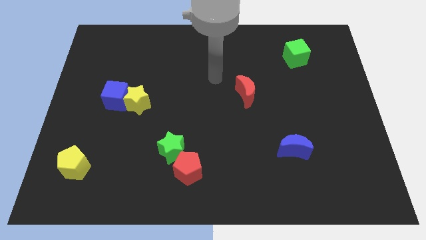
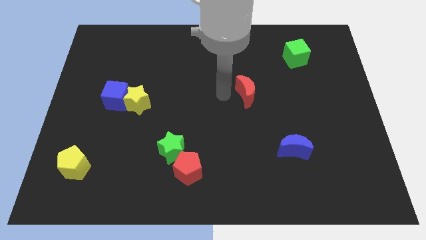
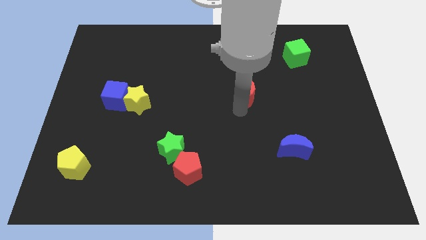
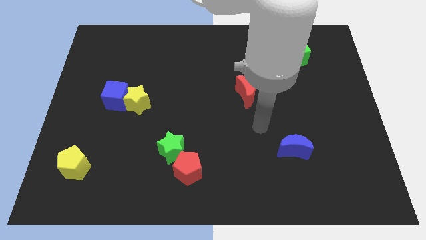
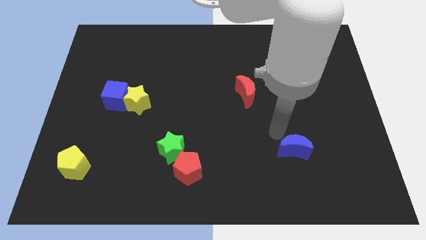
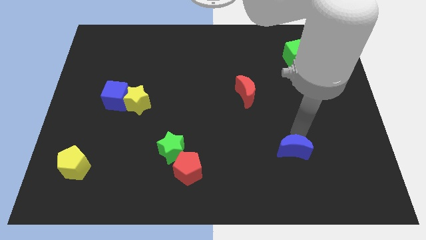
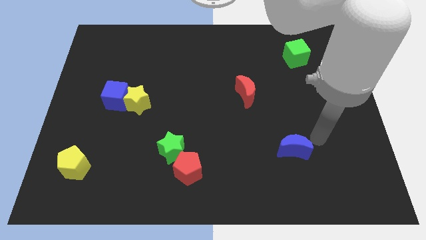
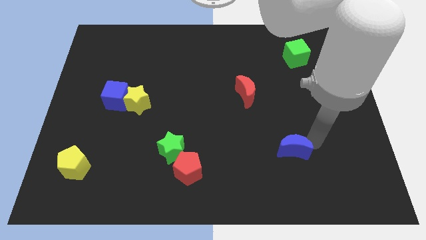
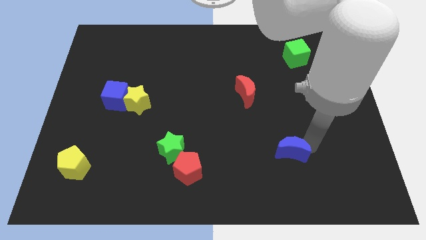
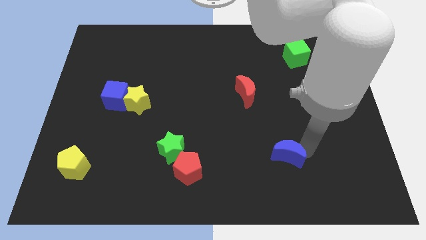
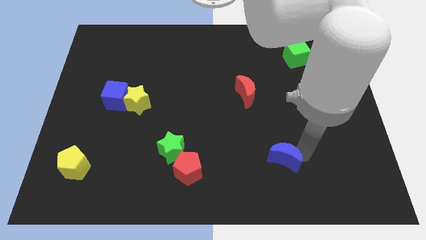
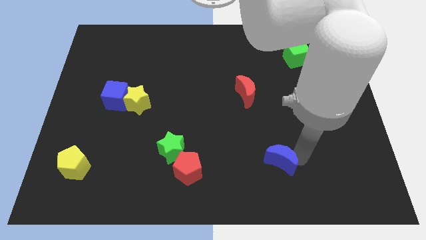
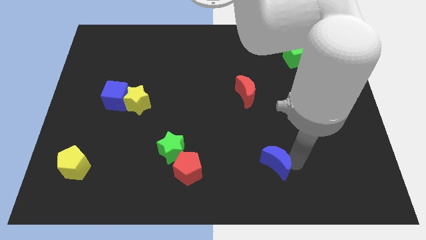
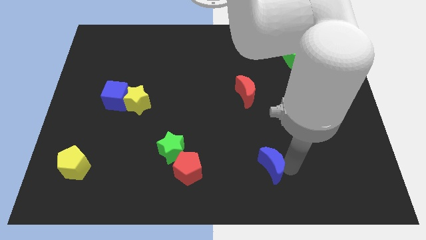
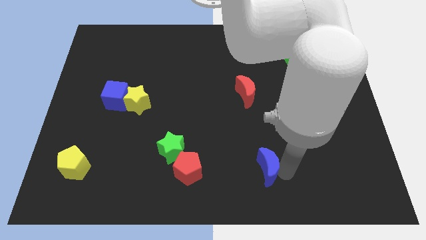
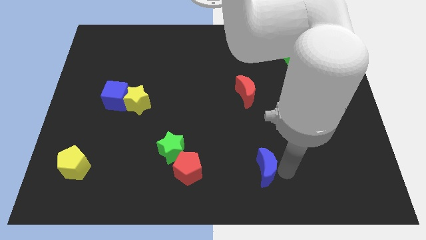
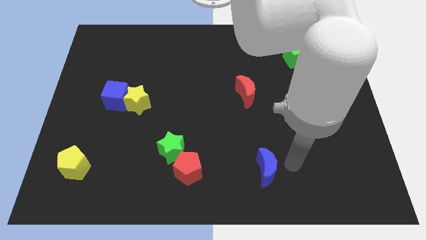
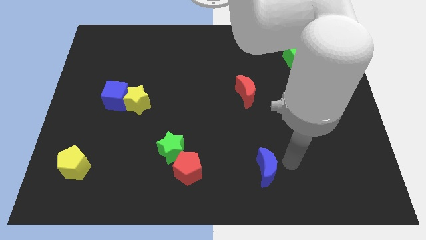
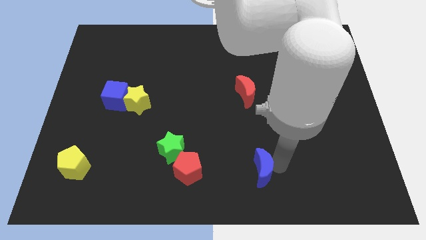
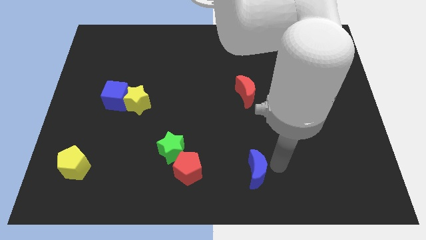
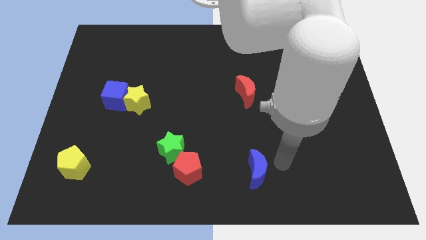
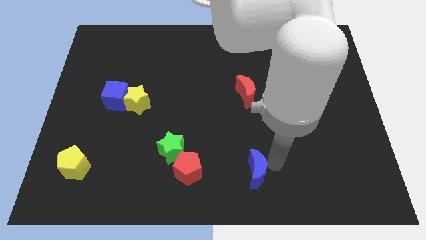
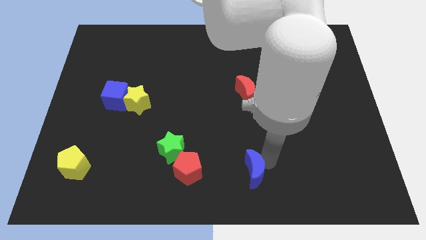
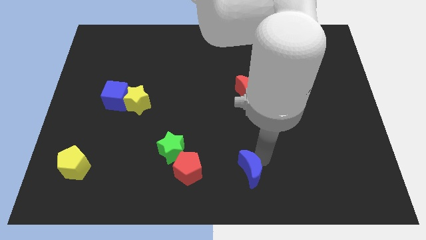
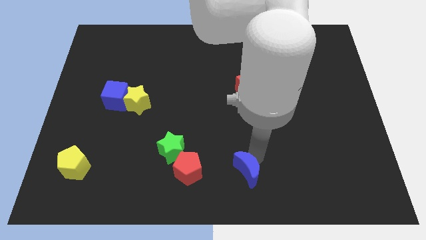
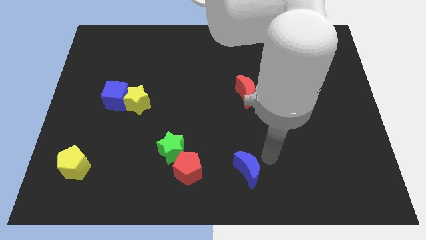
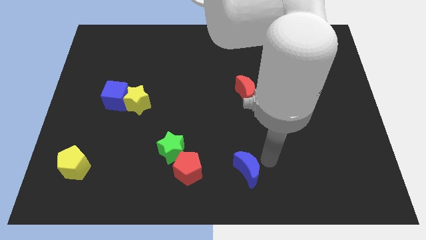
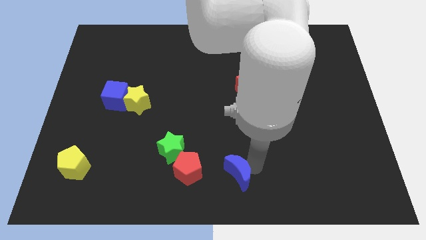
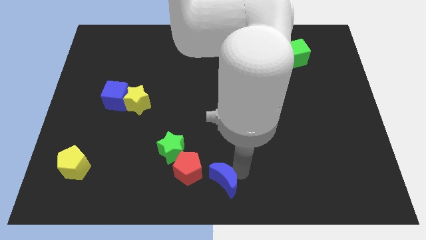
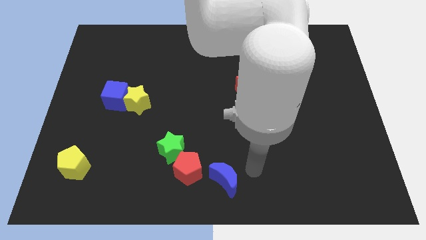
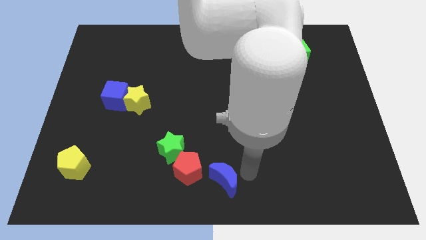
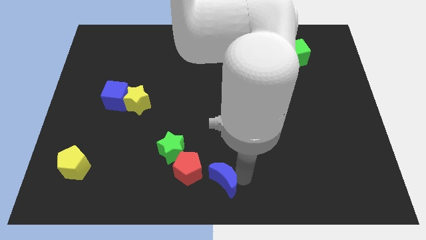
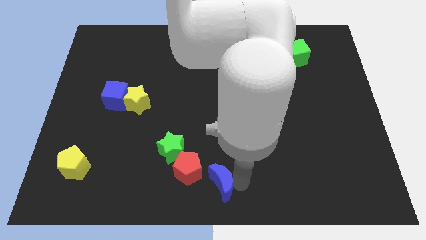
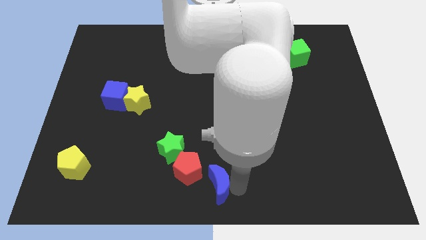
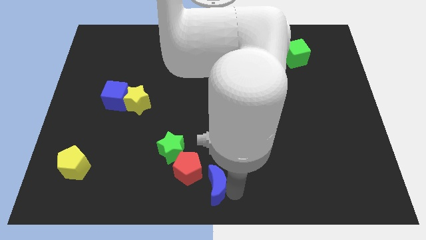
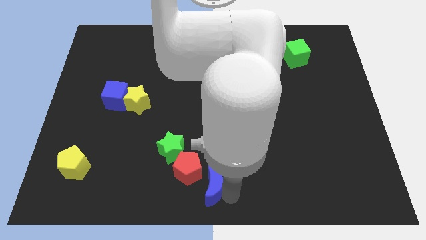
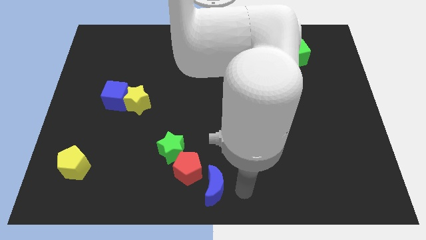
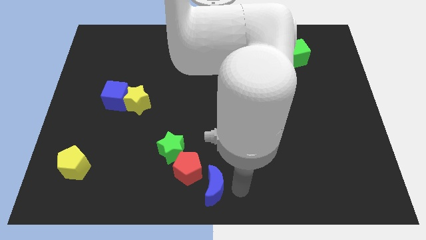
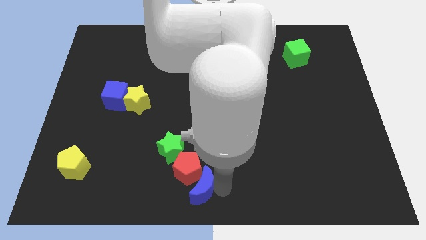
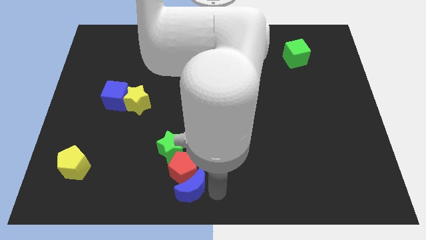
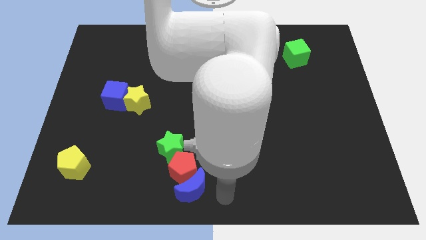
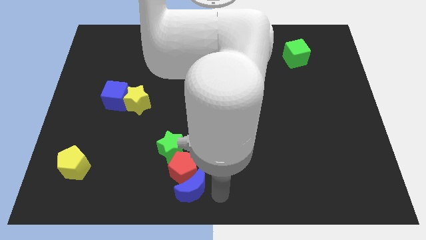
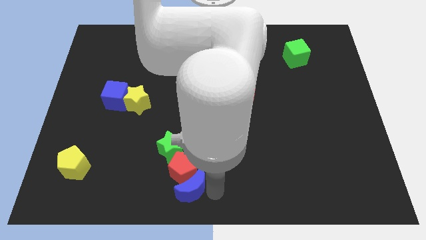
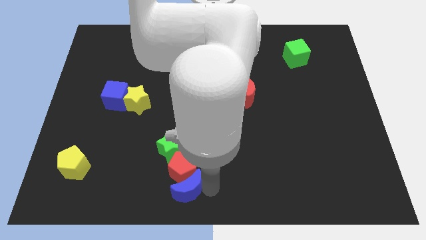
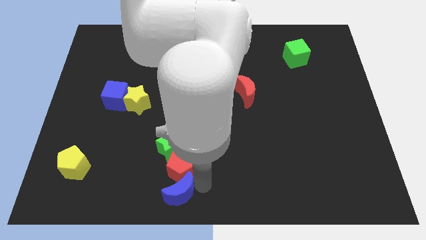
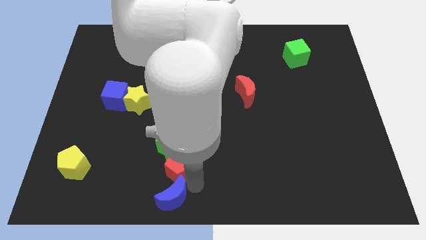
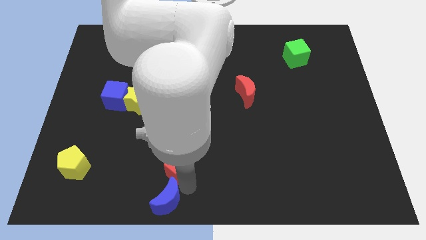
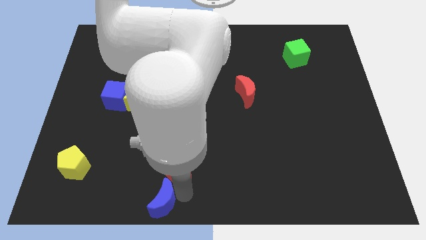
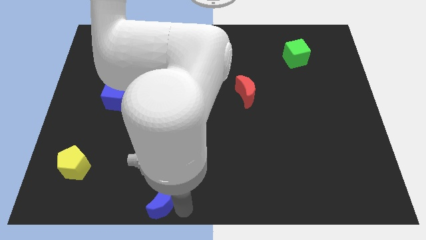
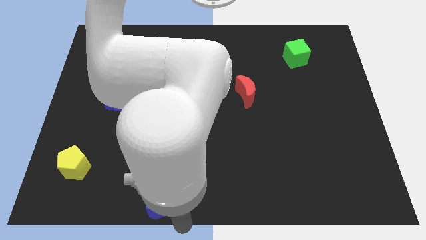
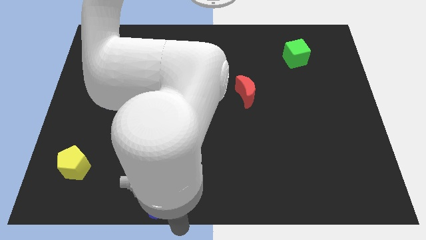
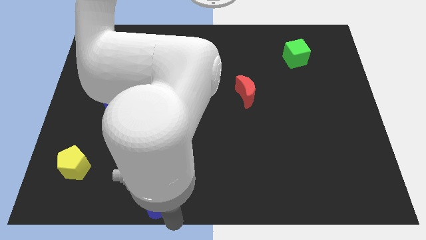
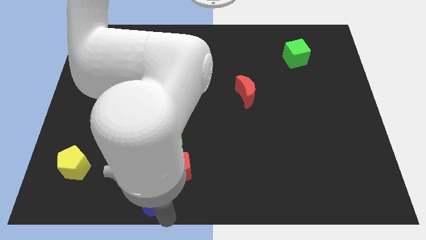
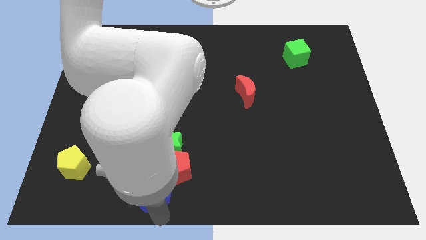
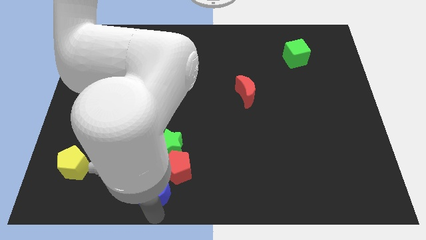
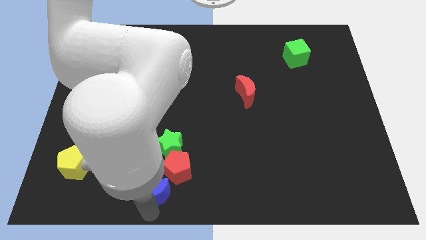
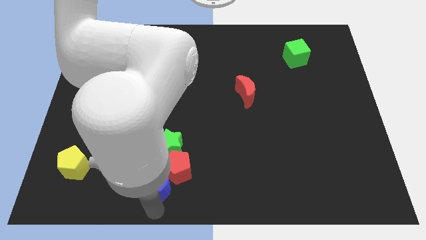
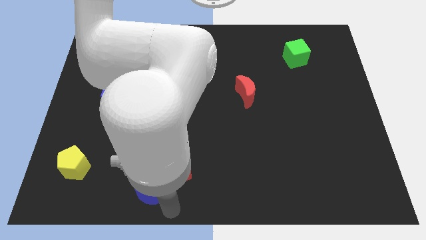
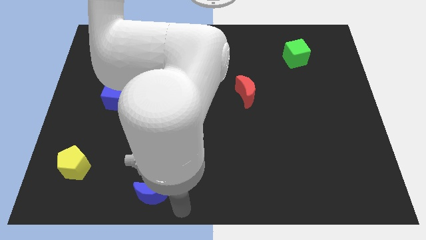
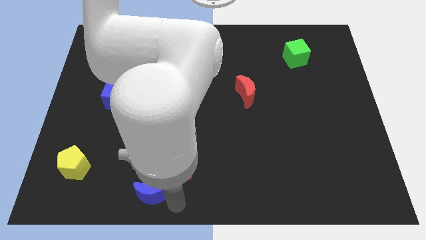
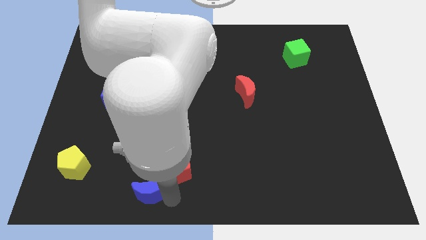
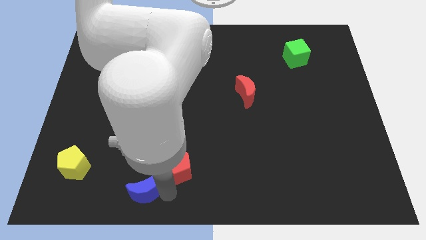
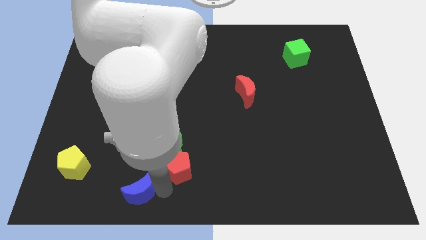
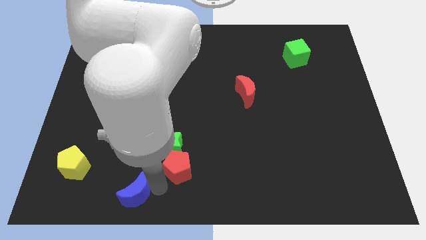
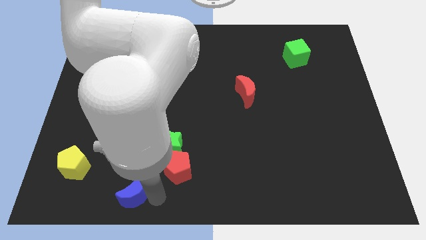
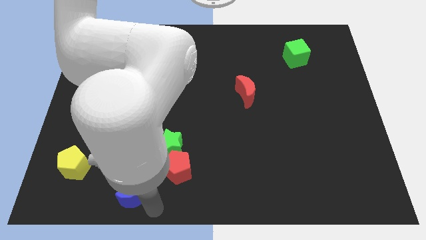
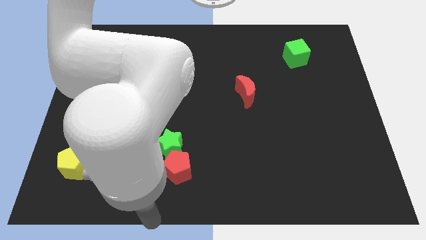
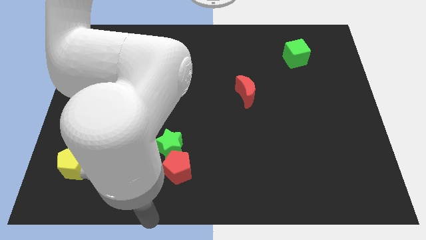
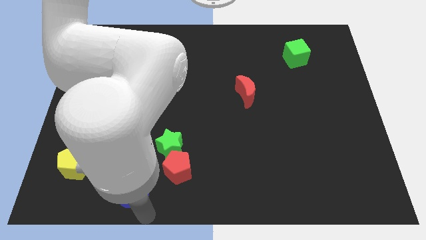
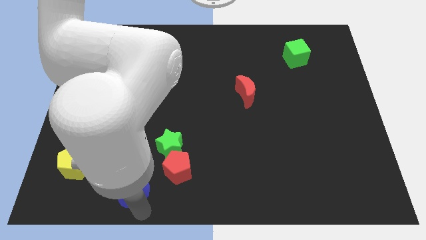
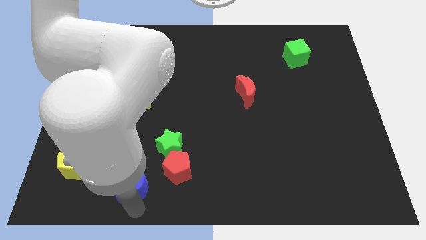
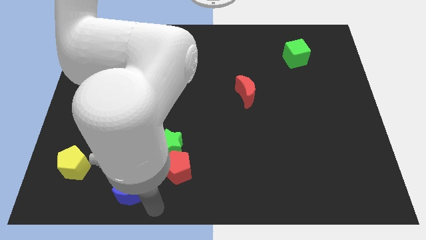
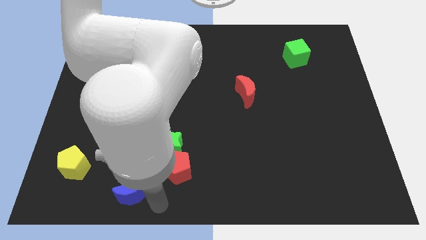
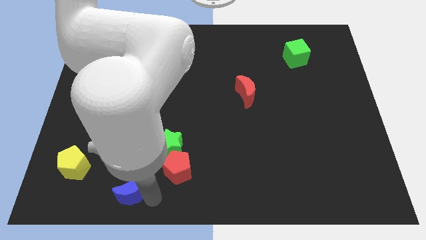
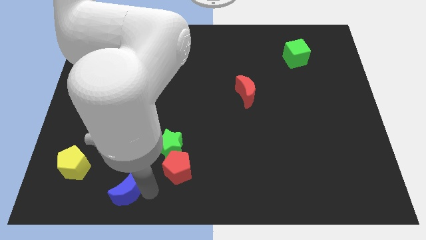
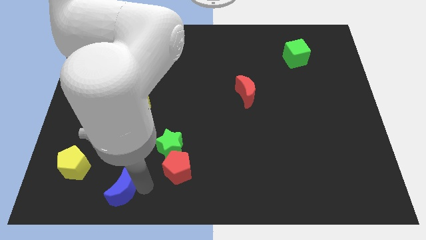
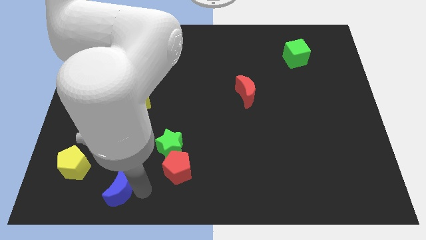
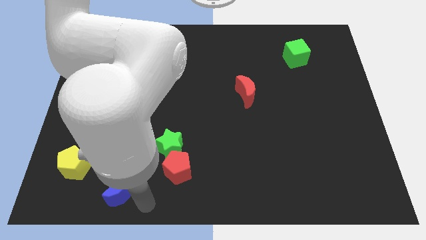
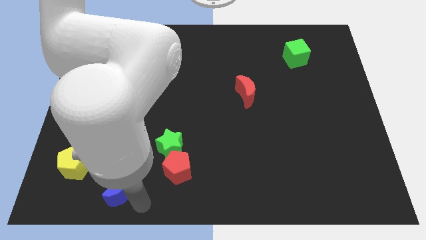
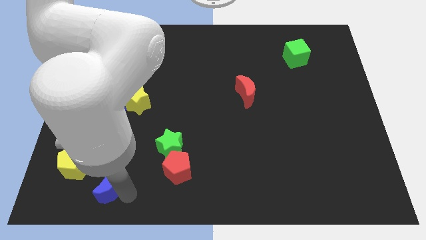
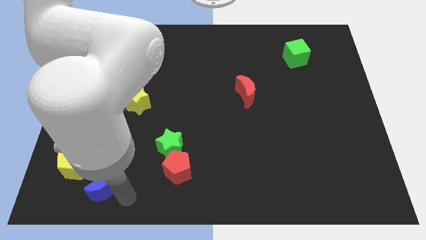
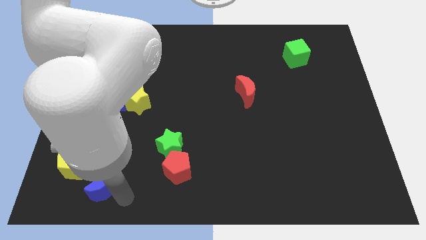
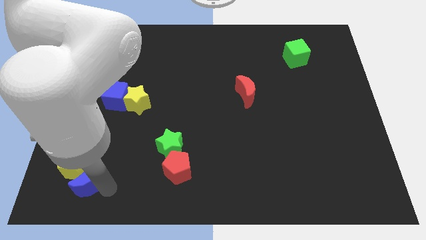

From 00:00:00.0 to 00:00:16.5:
slide the blue moon towards the yellow pentagon
